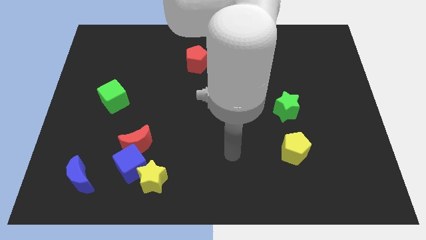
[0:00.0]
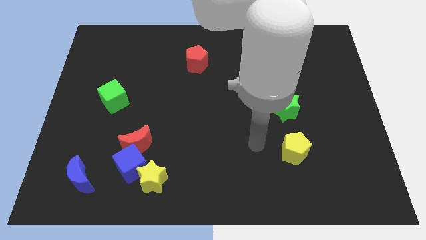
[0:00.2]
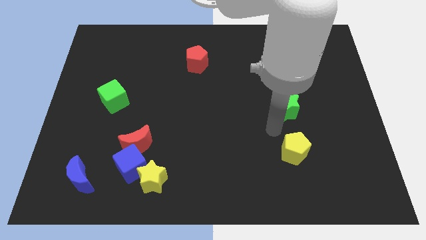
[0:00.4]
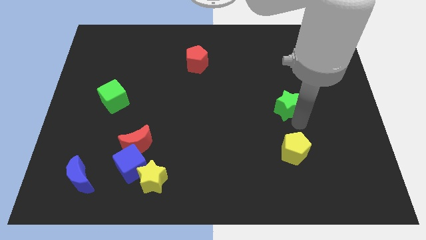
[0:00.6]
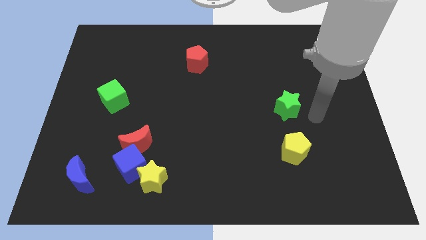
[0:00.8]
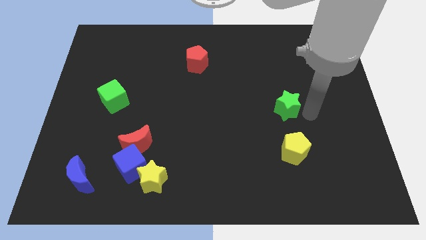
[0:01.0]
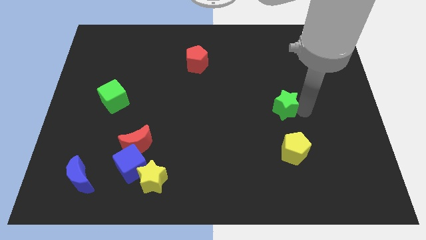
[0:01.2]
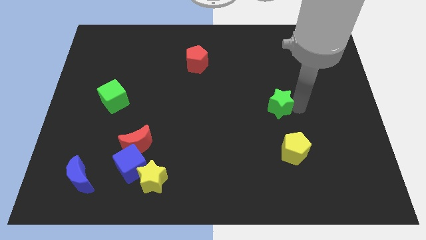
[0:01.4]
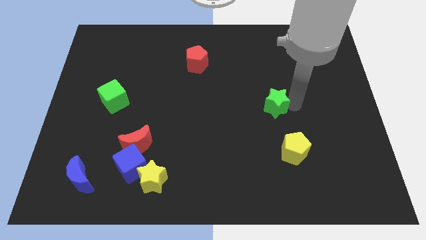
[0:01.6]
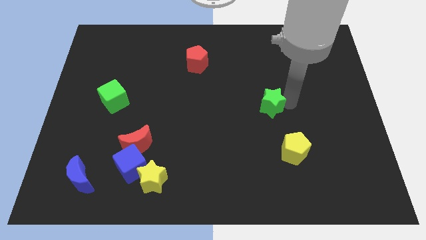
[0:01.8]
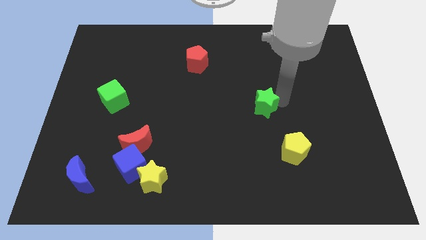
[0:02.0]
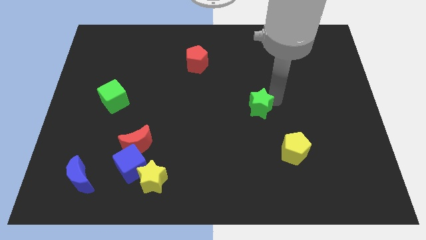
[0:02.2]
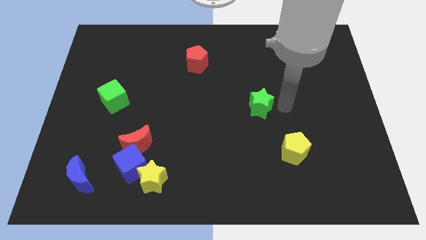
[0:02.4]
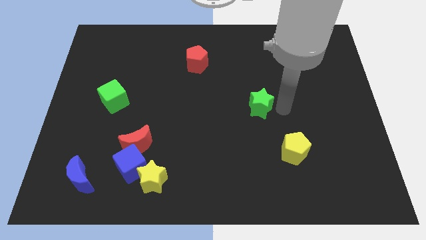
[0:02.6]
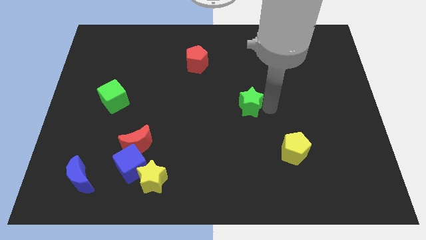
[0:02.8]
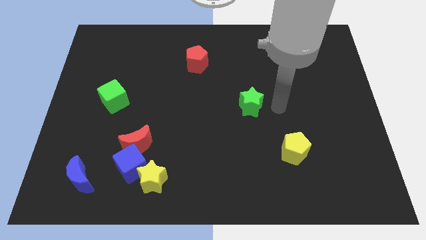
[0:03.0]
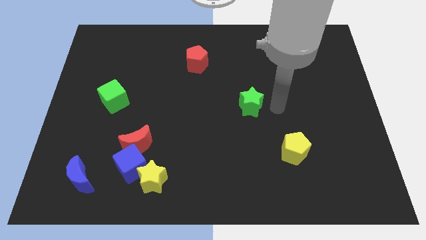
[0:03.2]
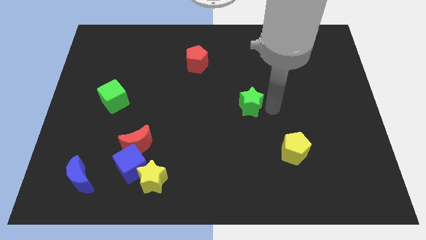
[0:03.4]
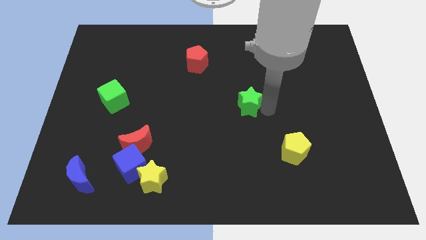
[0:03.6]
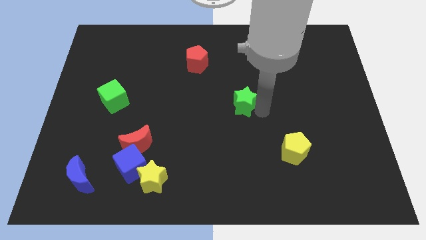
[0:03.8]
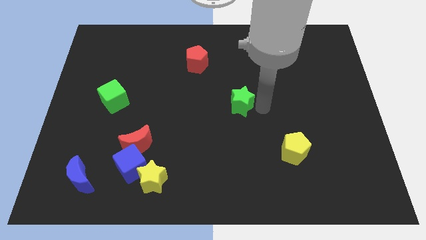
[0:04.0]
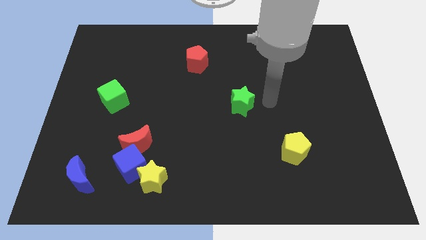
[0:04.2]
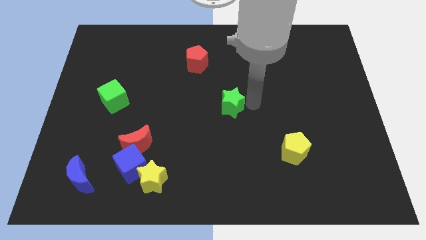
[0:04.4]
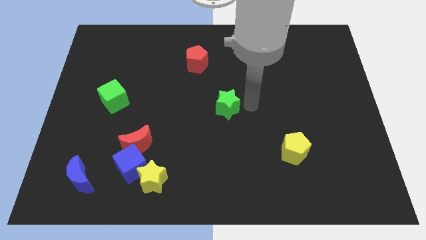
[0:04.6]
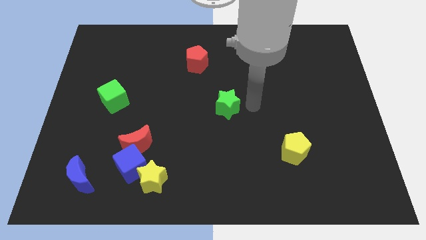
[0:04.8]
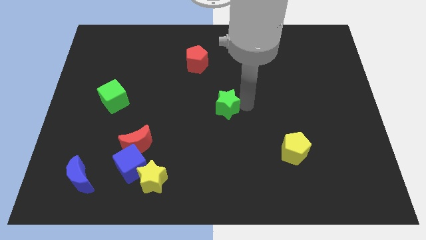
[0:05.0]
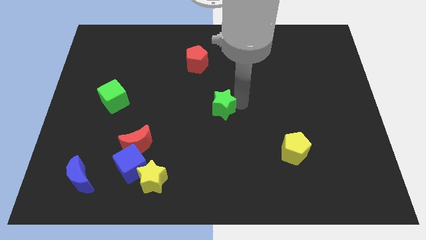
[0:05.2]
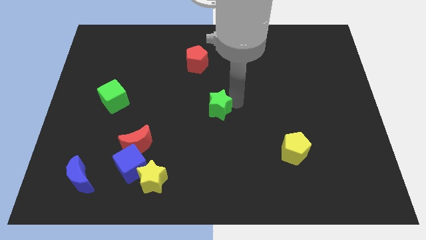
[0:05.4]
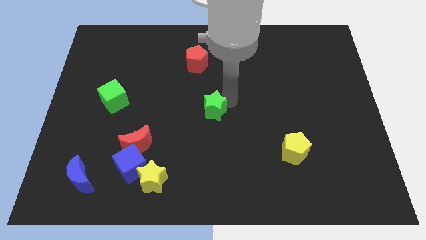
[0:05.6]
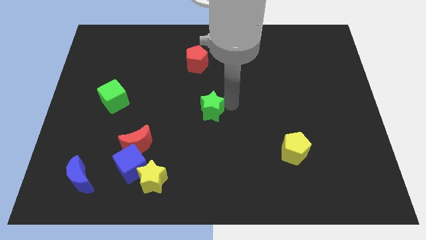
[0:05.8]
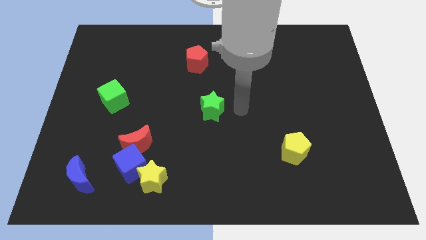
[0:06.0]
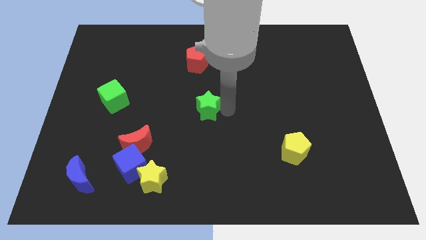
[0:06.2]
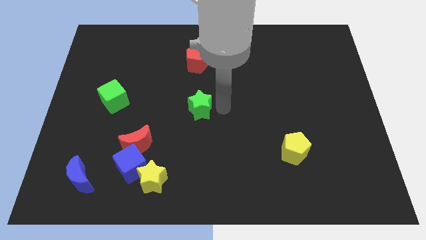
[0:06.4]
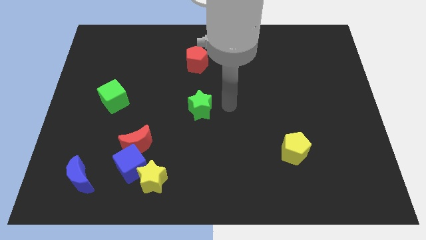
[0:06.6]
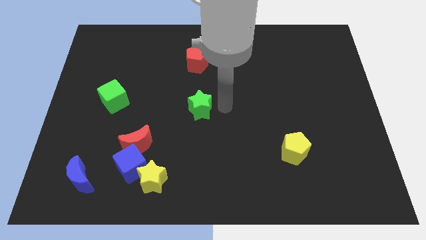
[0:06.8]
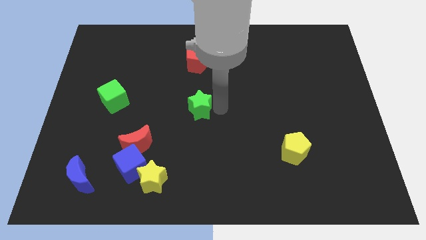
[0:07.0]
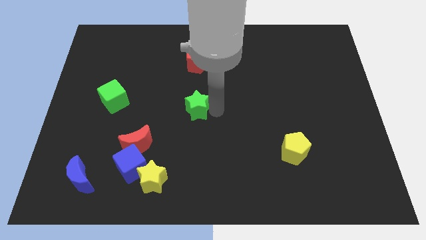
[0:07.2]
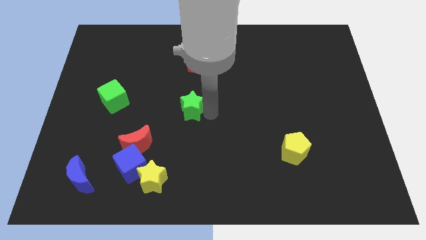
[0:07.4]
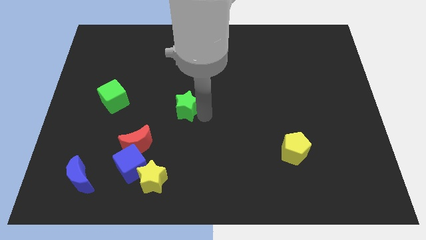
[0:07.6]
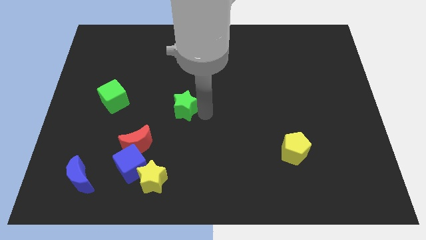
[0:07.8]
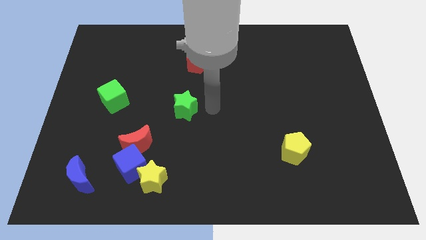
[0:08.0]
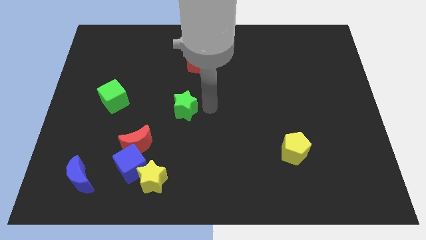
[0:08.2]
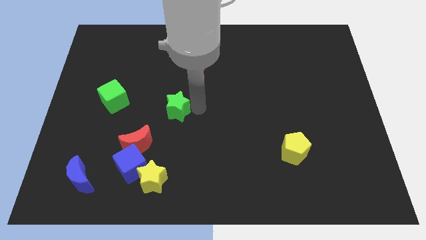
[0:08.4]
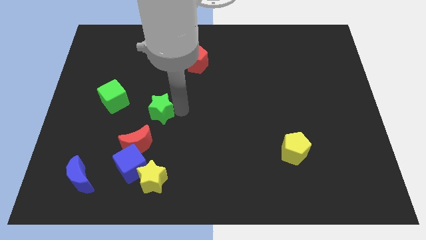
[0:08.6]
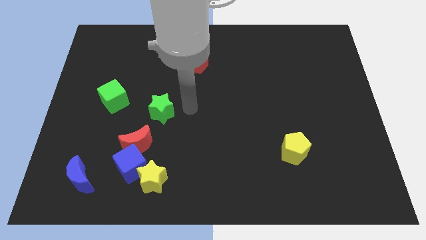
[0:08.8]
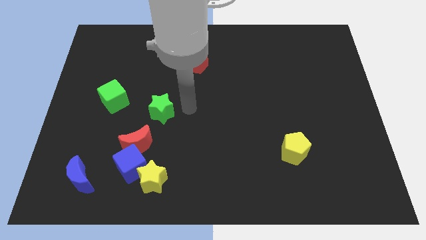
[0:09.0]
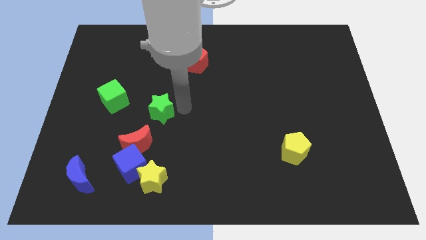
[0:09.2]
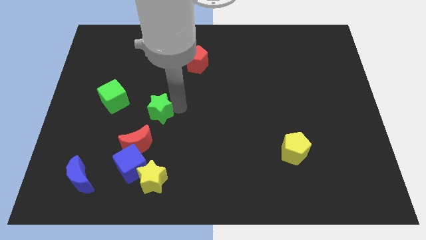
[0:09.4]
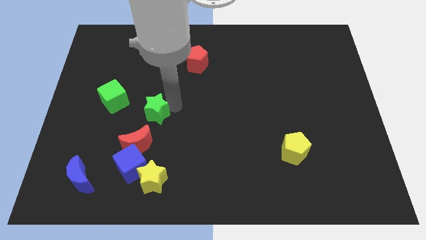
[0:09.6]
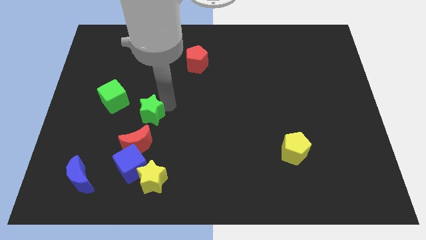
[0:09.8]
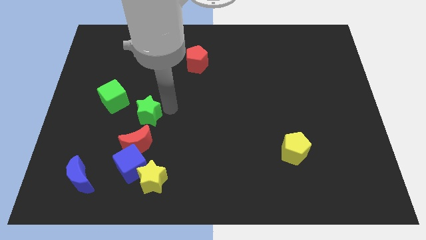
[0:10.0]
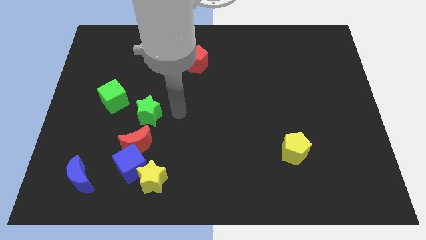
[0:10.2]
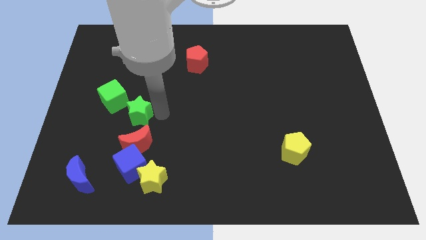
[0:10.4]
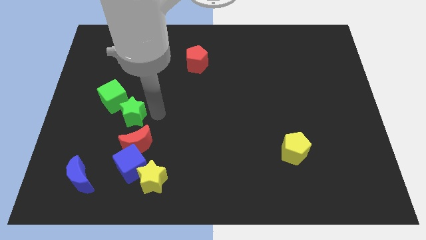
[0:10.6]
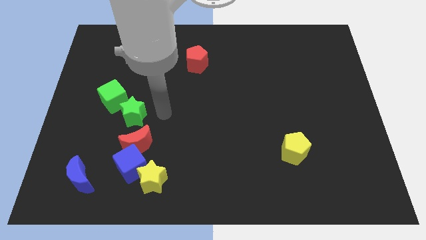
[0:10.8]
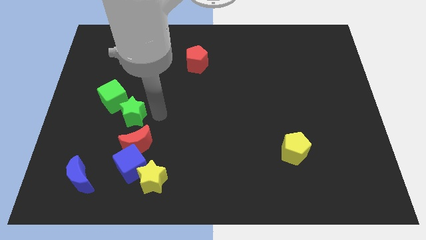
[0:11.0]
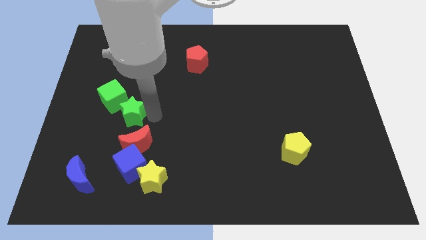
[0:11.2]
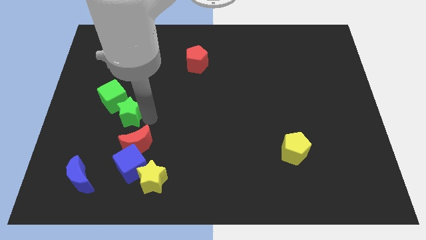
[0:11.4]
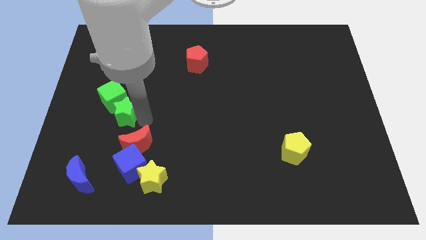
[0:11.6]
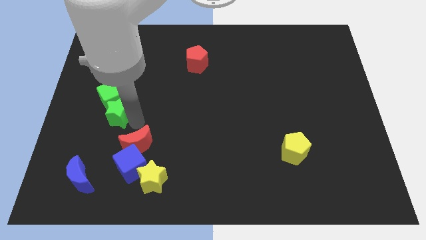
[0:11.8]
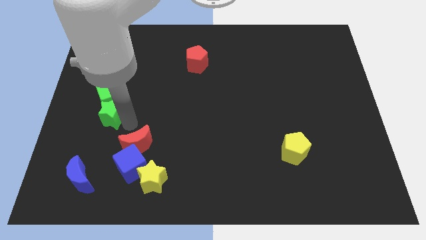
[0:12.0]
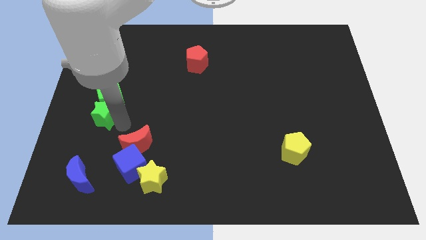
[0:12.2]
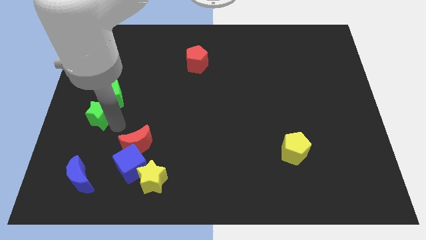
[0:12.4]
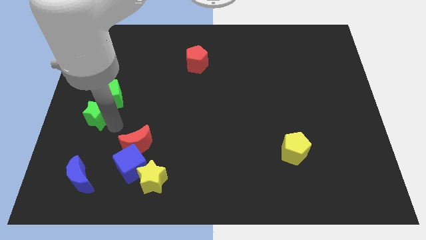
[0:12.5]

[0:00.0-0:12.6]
slide the green star to the left side
